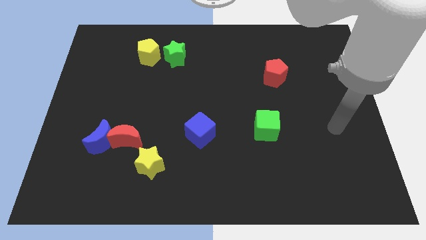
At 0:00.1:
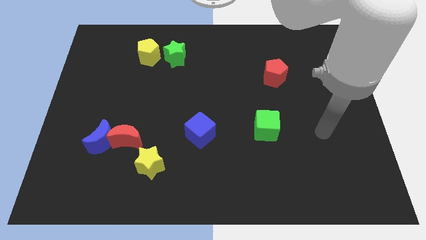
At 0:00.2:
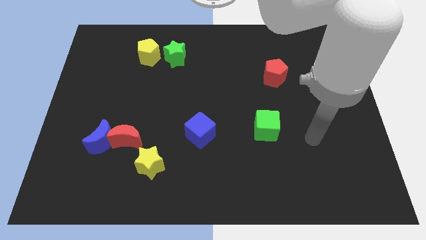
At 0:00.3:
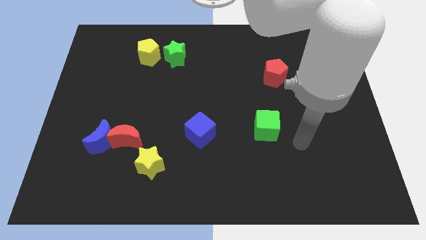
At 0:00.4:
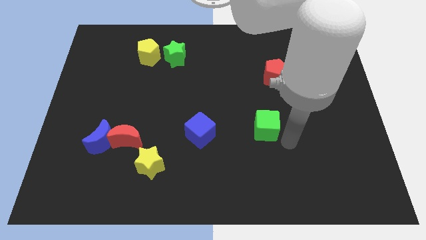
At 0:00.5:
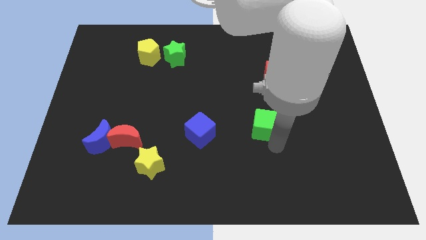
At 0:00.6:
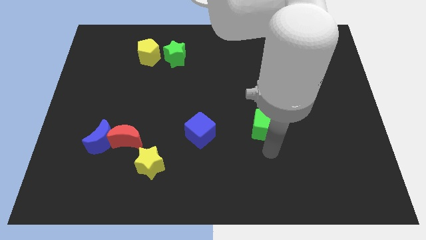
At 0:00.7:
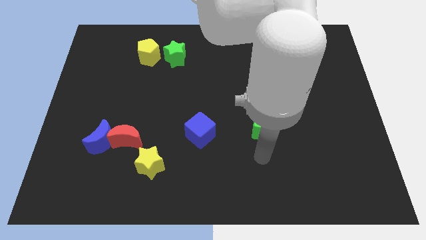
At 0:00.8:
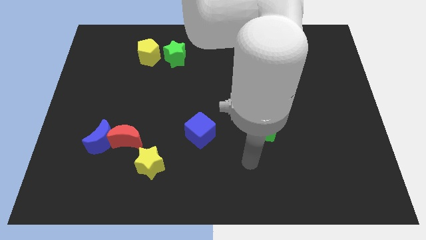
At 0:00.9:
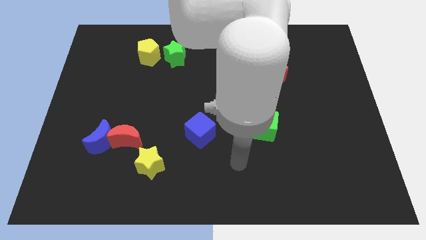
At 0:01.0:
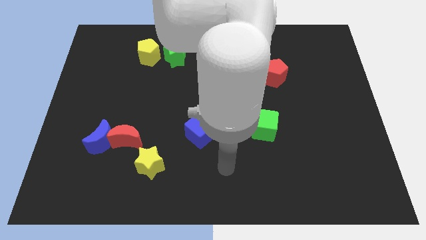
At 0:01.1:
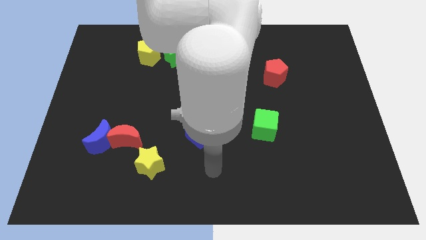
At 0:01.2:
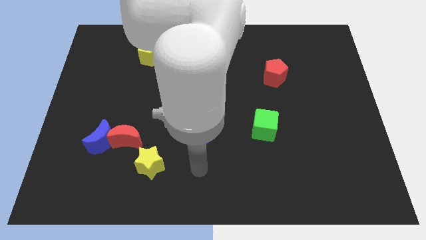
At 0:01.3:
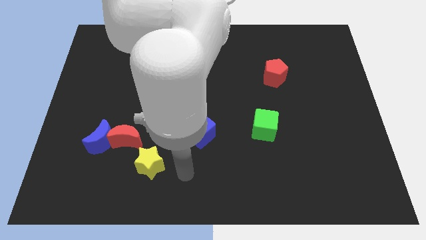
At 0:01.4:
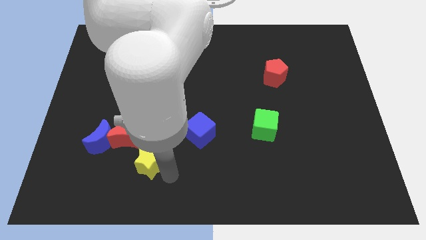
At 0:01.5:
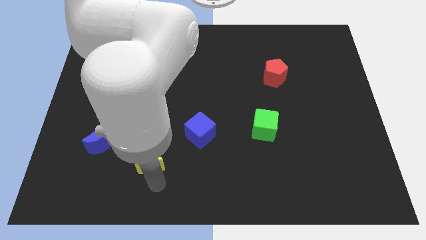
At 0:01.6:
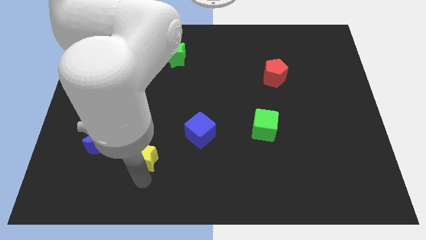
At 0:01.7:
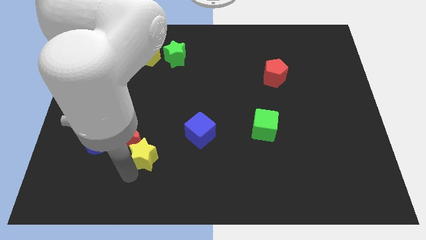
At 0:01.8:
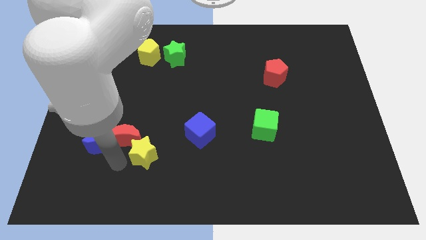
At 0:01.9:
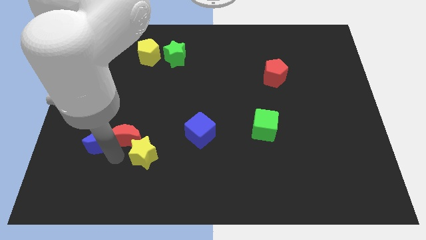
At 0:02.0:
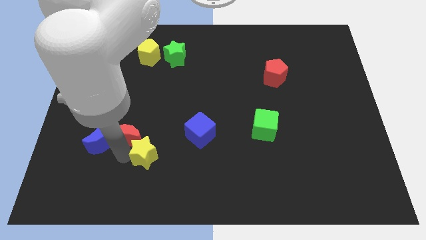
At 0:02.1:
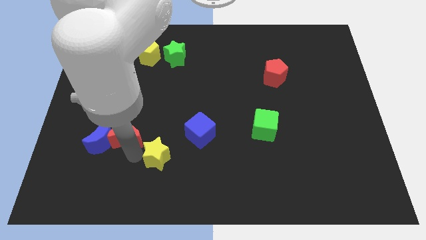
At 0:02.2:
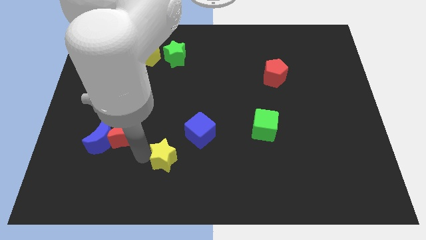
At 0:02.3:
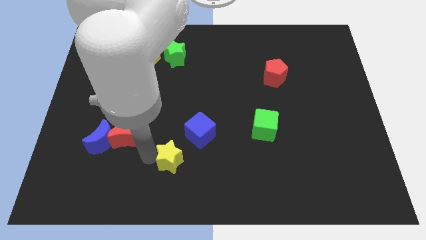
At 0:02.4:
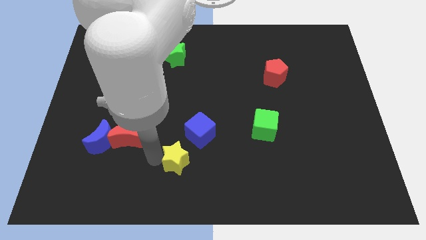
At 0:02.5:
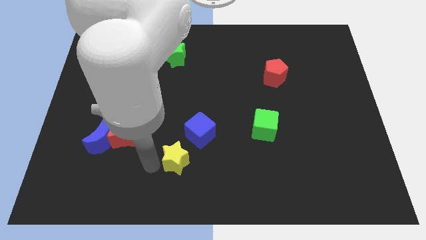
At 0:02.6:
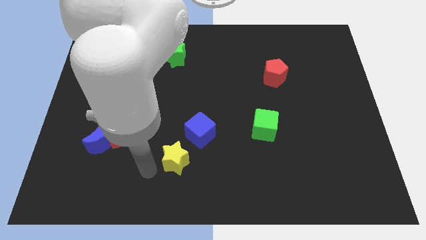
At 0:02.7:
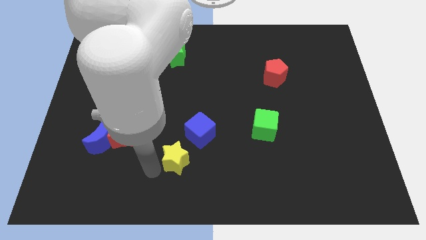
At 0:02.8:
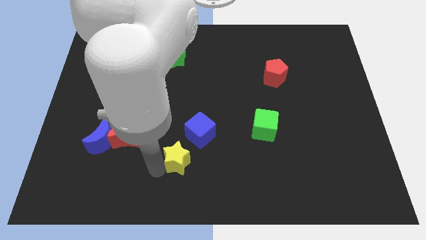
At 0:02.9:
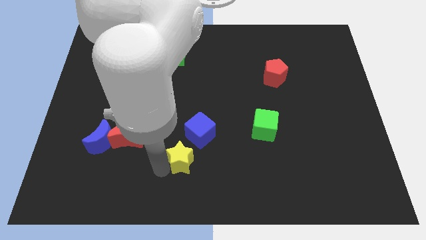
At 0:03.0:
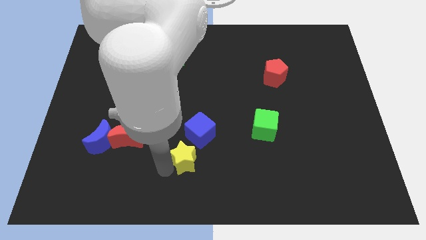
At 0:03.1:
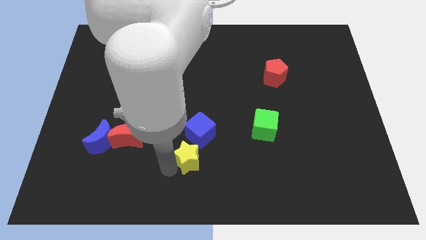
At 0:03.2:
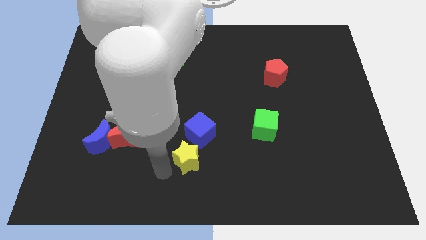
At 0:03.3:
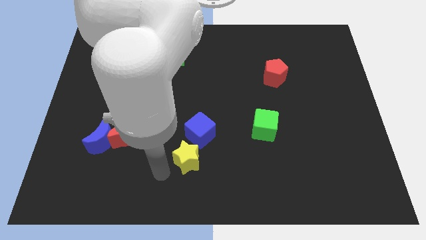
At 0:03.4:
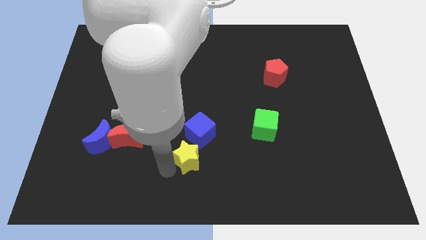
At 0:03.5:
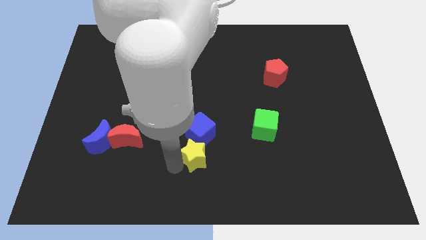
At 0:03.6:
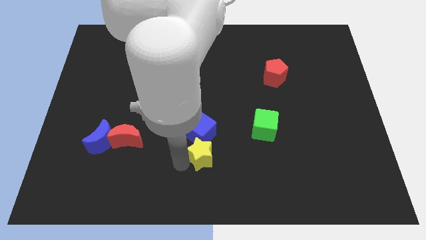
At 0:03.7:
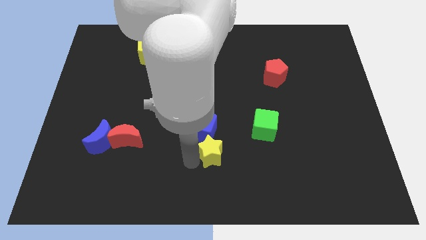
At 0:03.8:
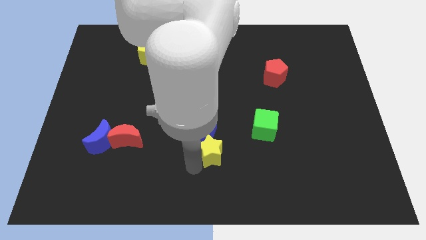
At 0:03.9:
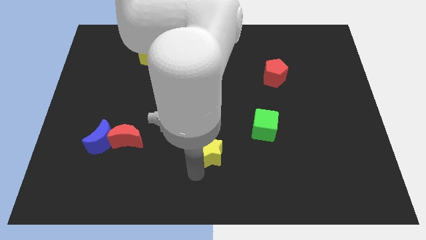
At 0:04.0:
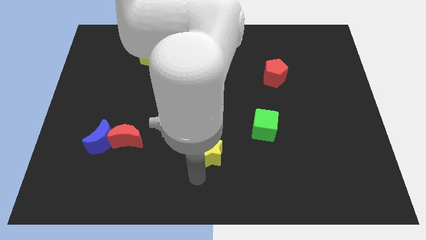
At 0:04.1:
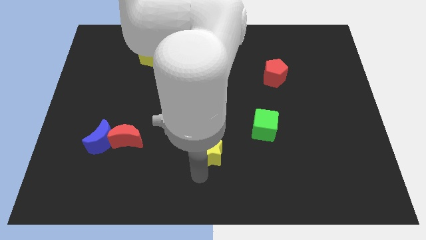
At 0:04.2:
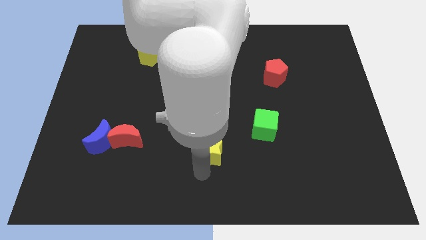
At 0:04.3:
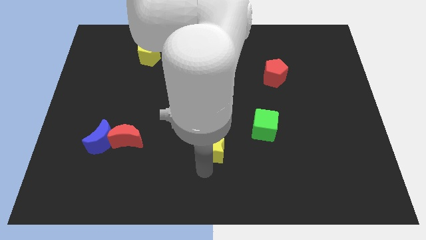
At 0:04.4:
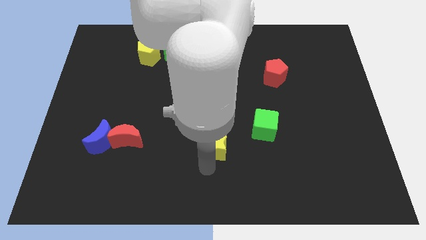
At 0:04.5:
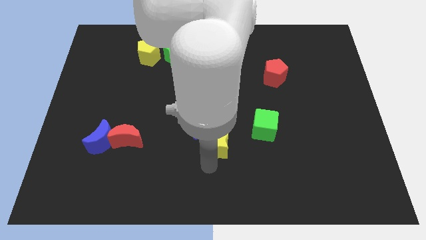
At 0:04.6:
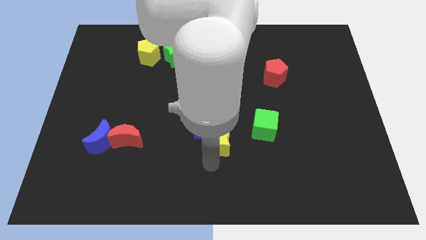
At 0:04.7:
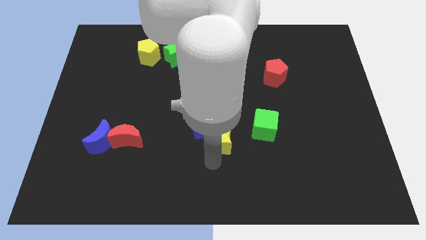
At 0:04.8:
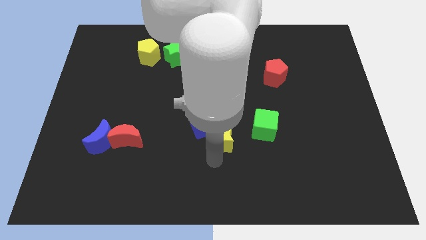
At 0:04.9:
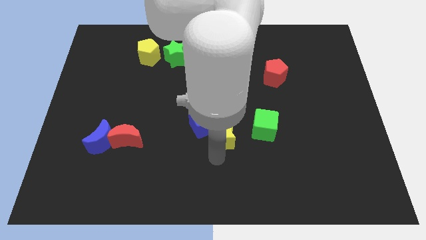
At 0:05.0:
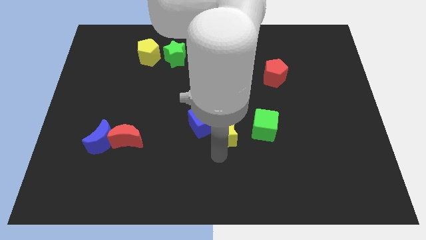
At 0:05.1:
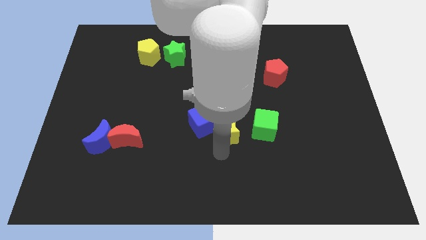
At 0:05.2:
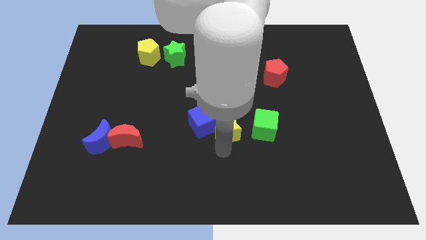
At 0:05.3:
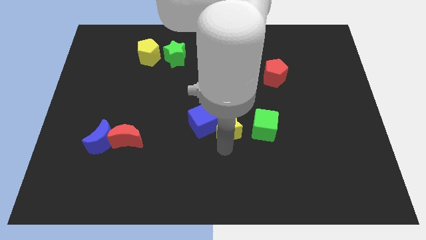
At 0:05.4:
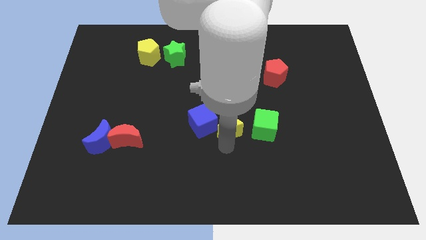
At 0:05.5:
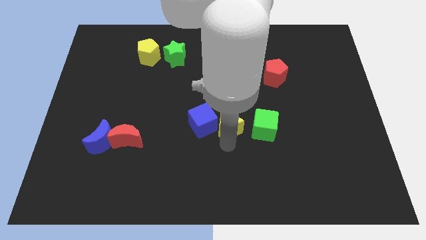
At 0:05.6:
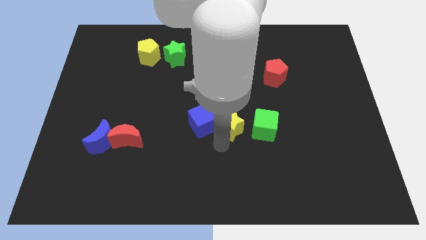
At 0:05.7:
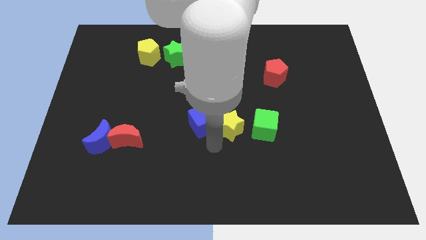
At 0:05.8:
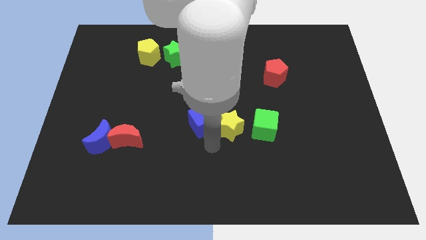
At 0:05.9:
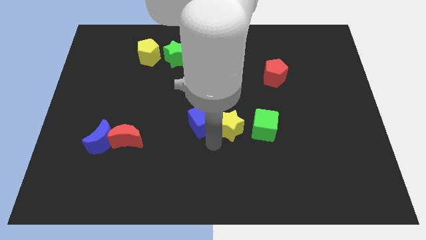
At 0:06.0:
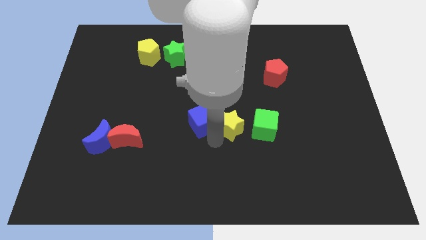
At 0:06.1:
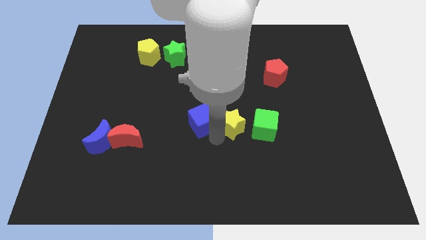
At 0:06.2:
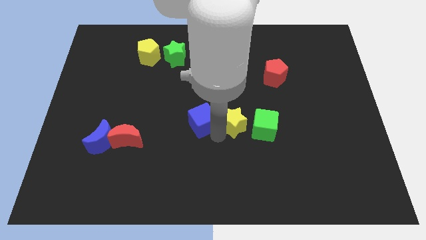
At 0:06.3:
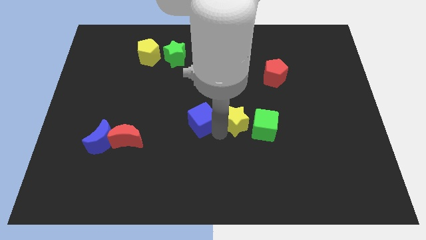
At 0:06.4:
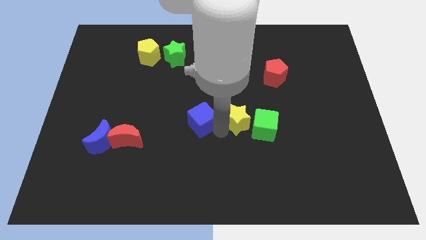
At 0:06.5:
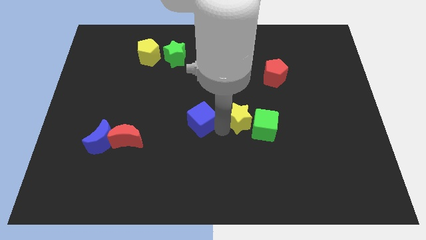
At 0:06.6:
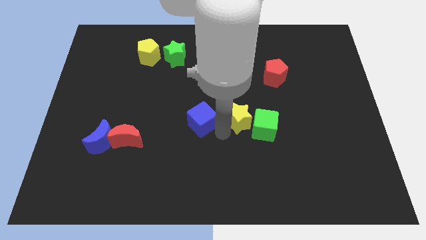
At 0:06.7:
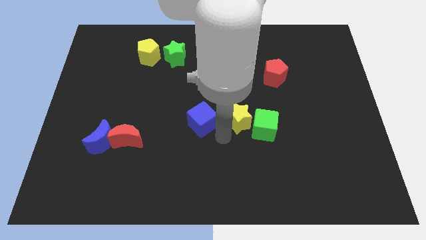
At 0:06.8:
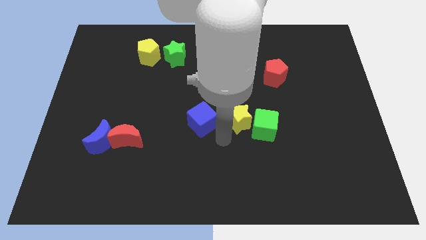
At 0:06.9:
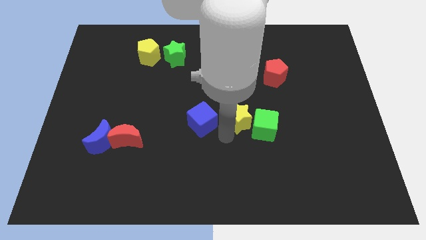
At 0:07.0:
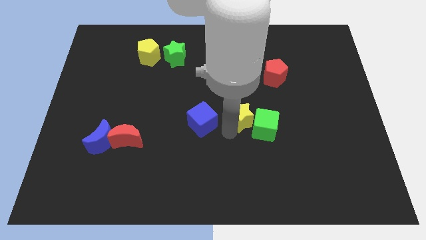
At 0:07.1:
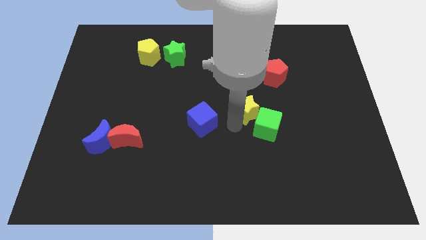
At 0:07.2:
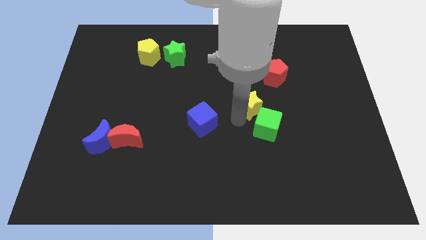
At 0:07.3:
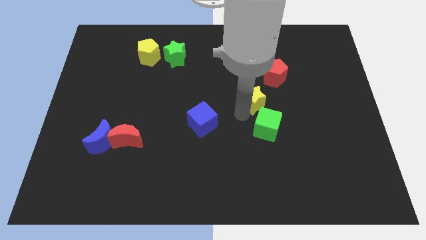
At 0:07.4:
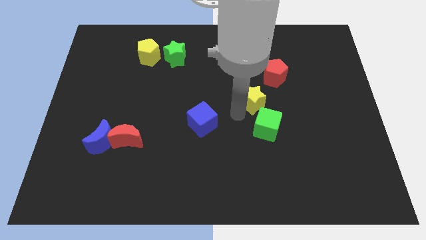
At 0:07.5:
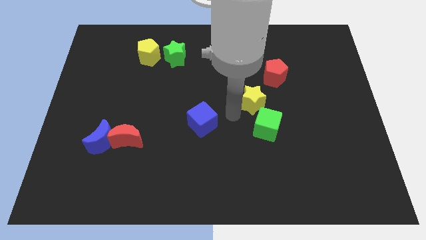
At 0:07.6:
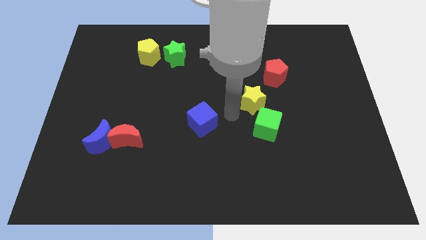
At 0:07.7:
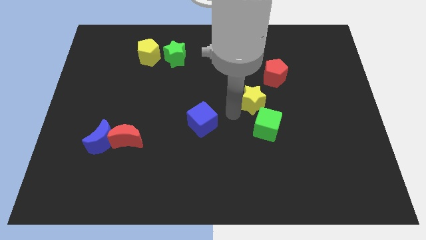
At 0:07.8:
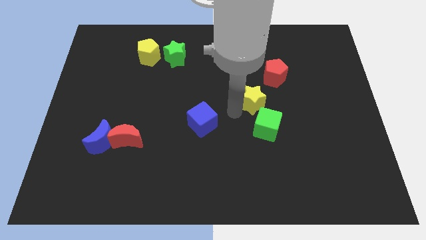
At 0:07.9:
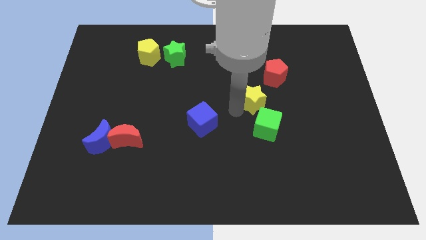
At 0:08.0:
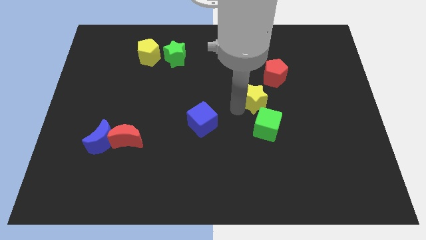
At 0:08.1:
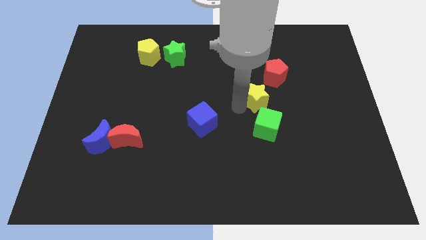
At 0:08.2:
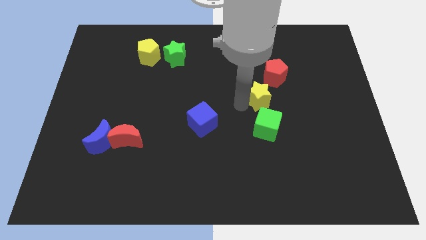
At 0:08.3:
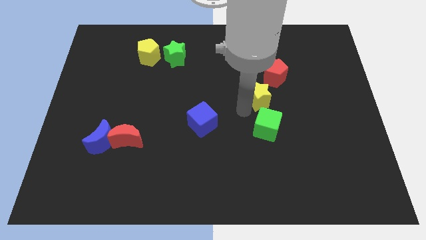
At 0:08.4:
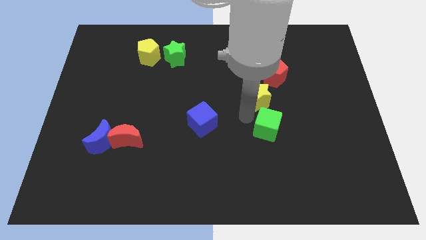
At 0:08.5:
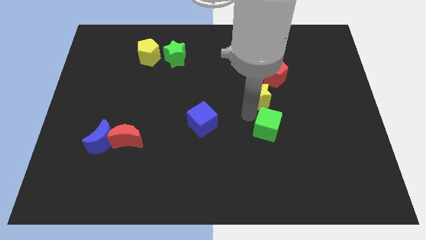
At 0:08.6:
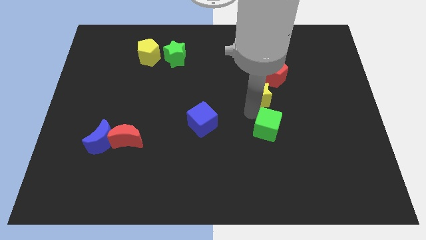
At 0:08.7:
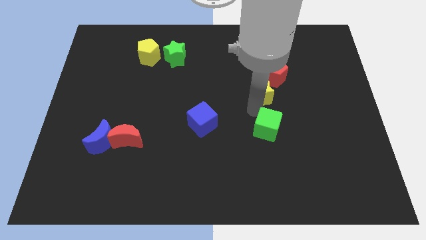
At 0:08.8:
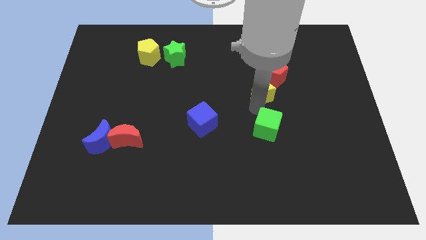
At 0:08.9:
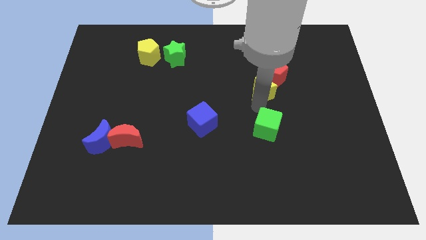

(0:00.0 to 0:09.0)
push the yellow star next to the red pentagon
